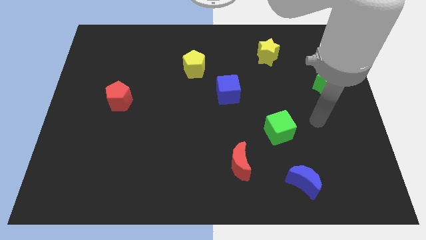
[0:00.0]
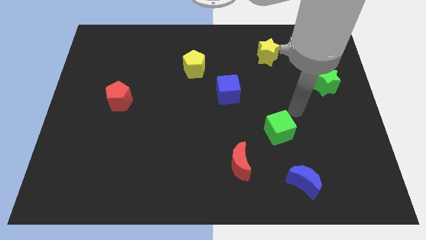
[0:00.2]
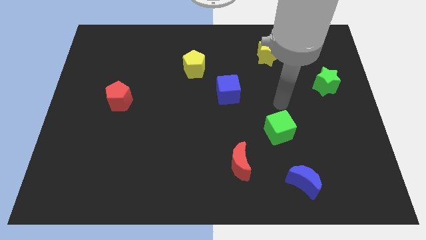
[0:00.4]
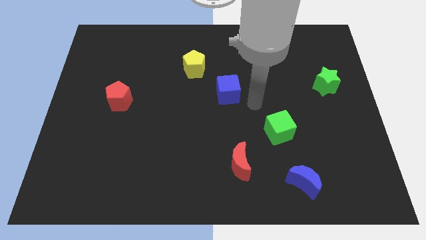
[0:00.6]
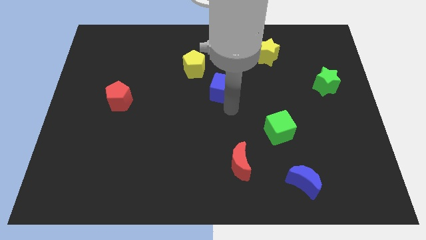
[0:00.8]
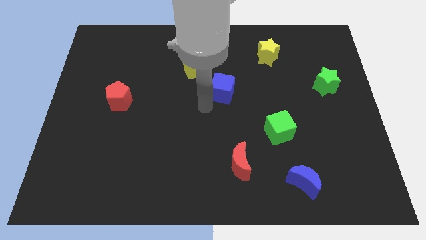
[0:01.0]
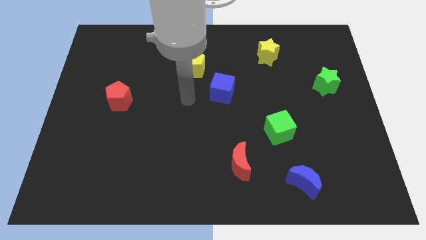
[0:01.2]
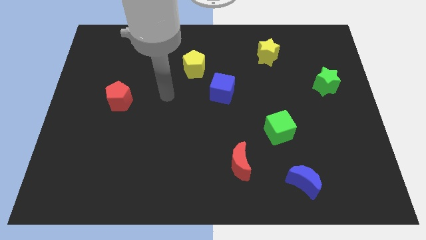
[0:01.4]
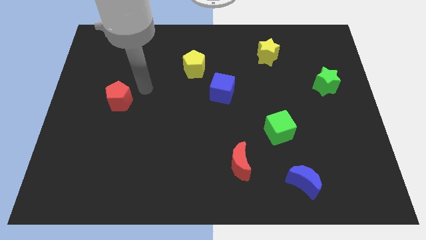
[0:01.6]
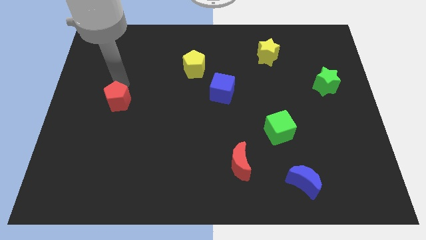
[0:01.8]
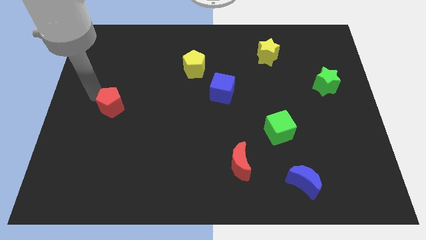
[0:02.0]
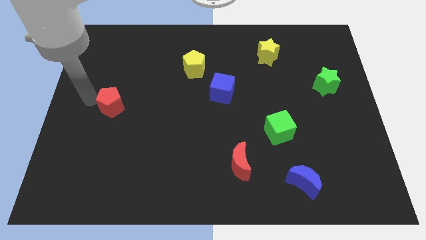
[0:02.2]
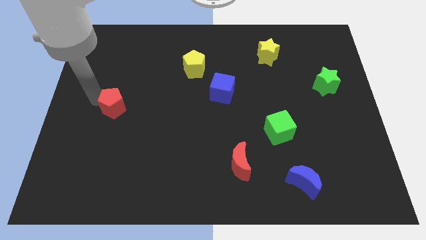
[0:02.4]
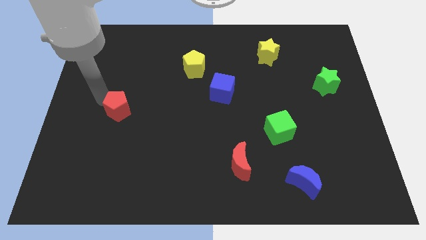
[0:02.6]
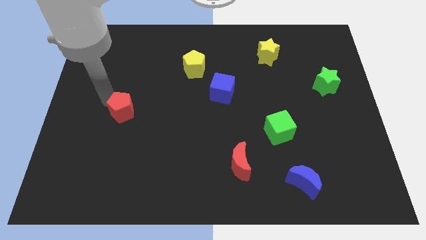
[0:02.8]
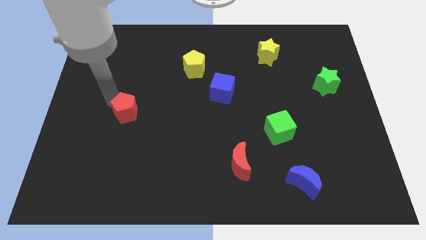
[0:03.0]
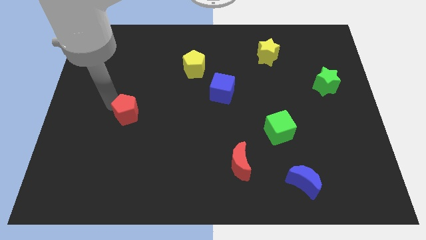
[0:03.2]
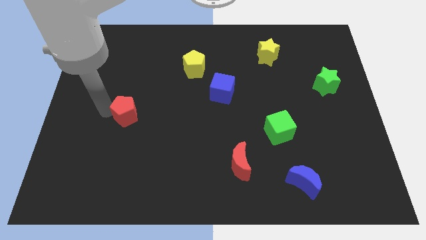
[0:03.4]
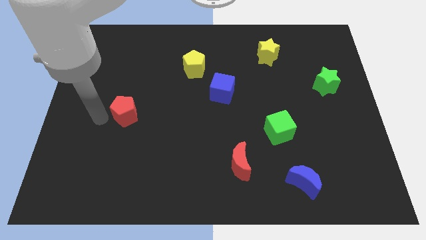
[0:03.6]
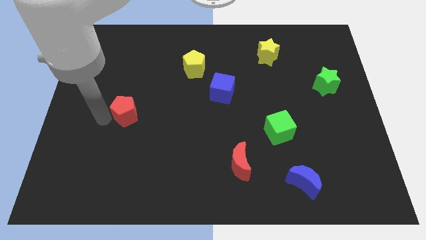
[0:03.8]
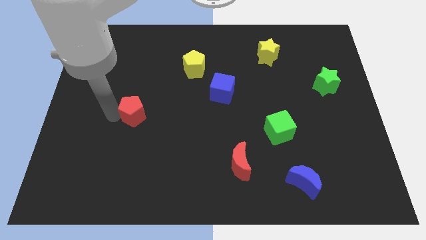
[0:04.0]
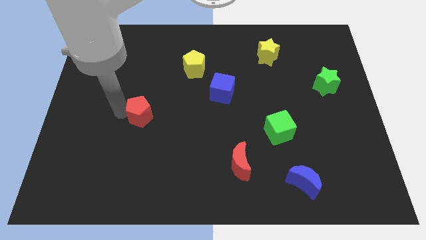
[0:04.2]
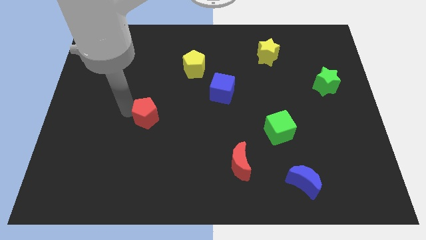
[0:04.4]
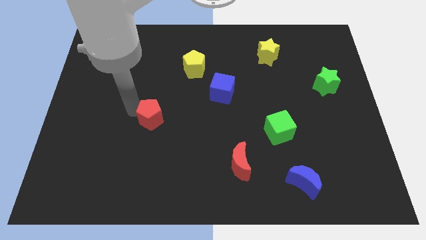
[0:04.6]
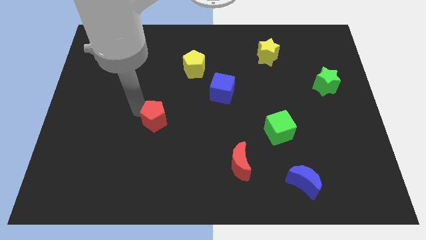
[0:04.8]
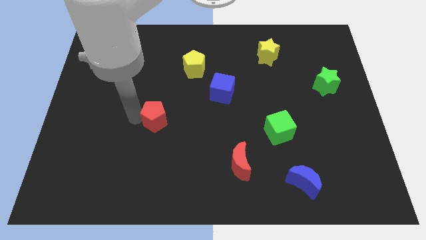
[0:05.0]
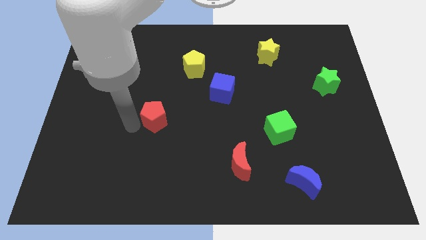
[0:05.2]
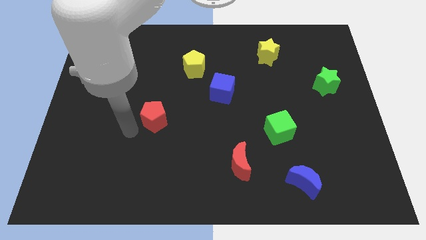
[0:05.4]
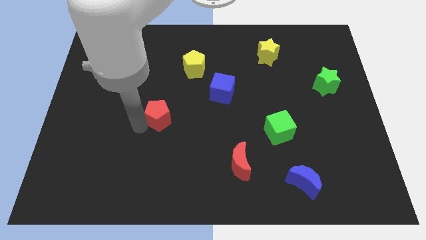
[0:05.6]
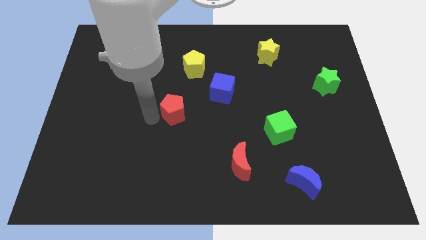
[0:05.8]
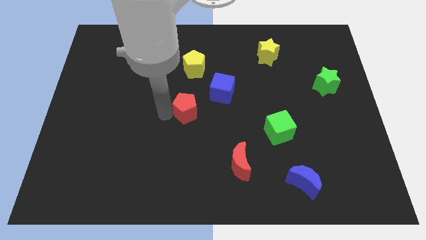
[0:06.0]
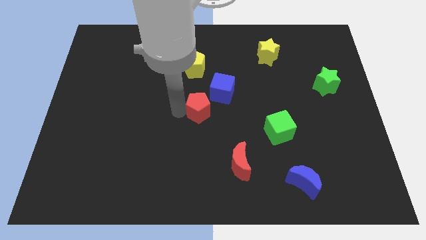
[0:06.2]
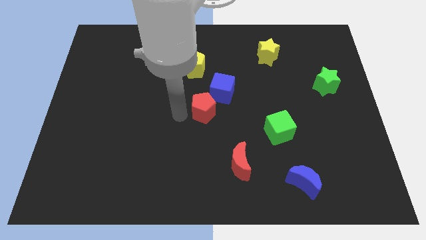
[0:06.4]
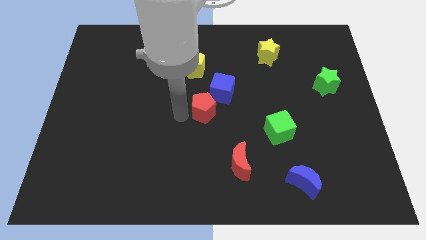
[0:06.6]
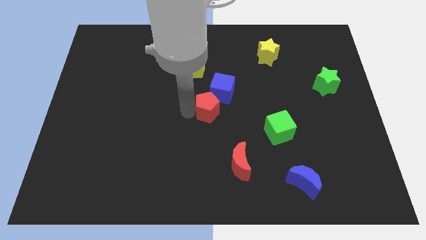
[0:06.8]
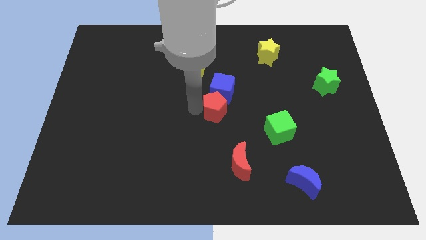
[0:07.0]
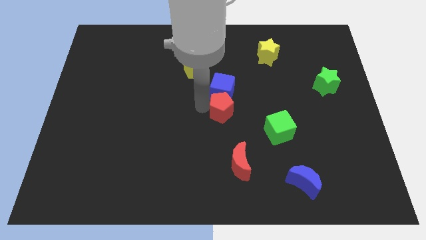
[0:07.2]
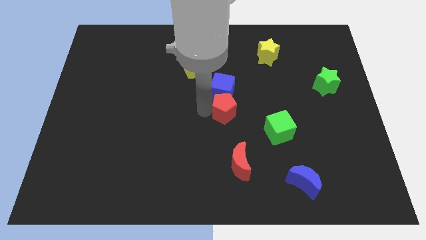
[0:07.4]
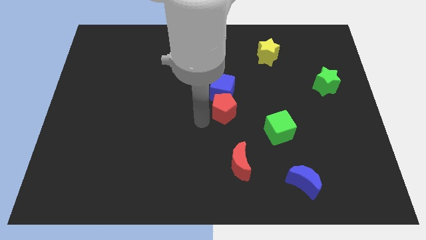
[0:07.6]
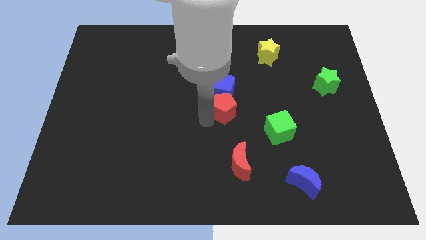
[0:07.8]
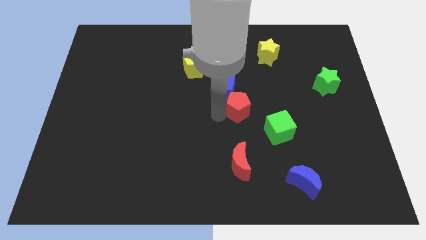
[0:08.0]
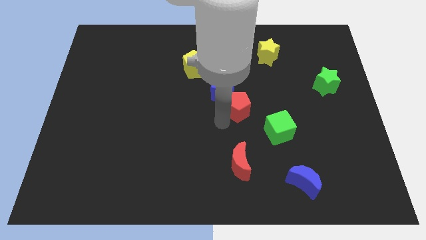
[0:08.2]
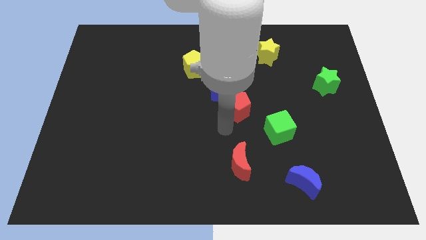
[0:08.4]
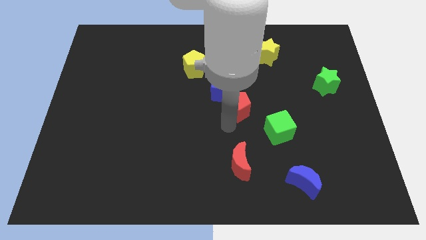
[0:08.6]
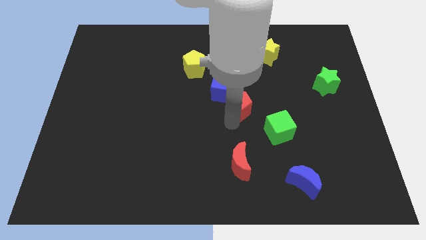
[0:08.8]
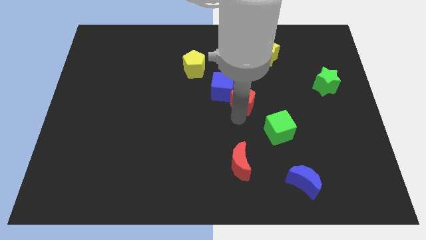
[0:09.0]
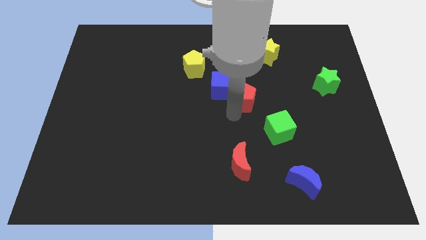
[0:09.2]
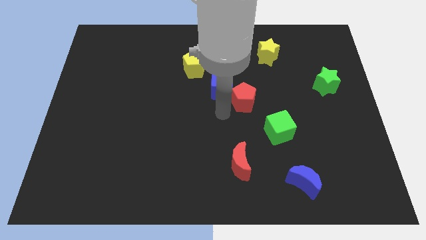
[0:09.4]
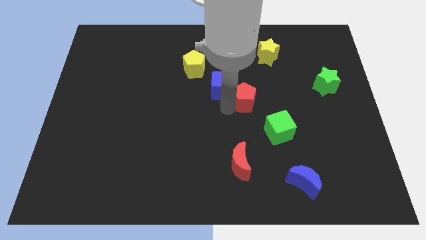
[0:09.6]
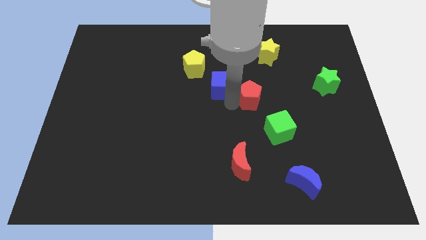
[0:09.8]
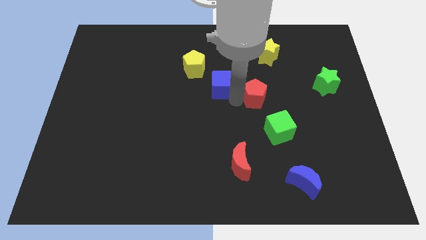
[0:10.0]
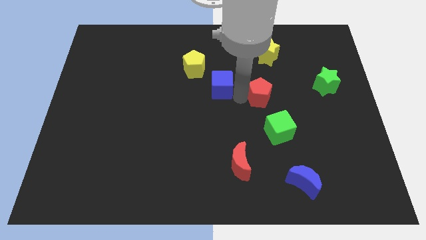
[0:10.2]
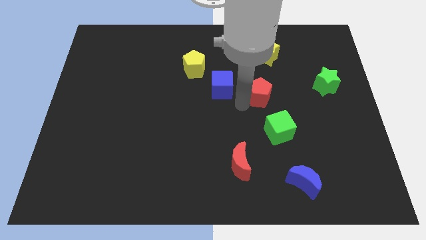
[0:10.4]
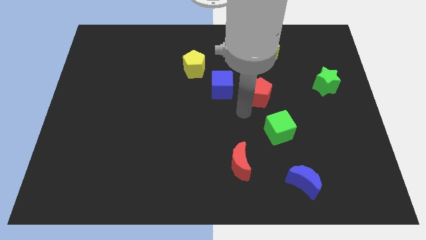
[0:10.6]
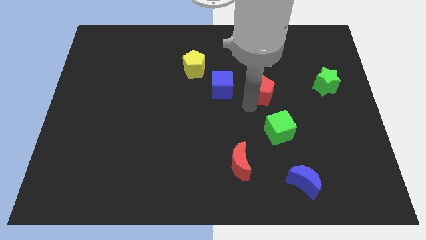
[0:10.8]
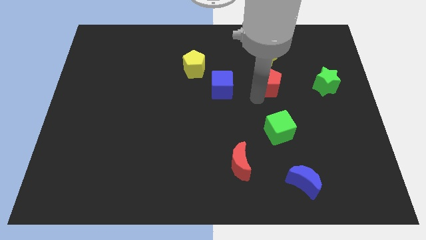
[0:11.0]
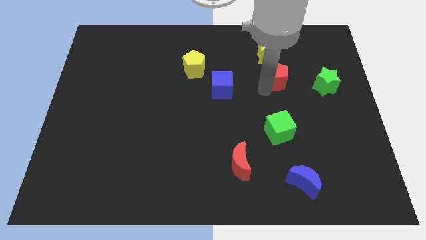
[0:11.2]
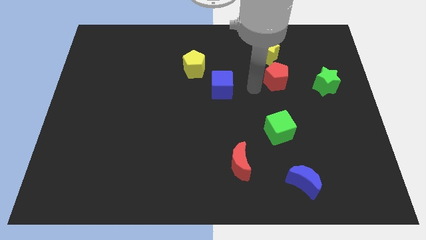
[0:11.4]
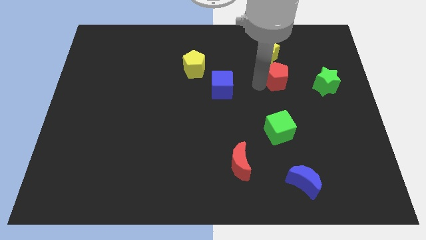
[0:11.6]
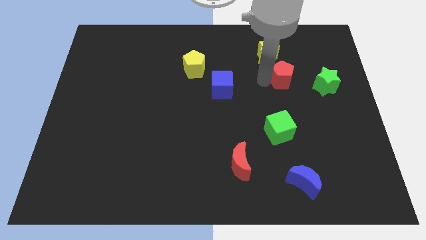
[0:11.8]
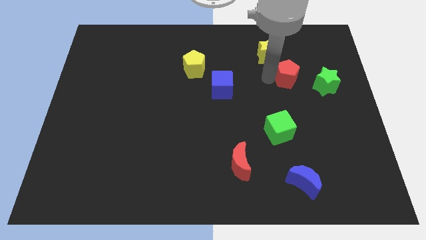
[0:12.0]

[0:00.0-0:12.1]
put the red pentagon diagonally up and to the left of the green star

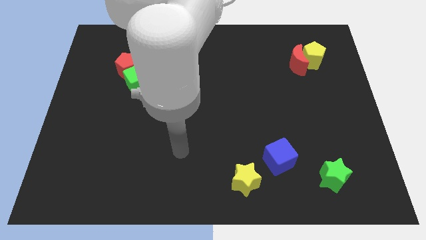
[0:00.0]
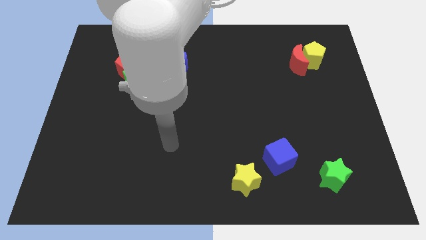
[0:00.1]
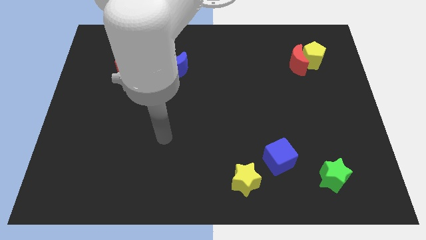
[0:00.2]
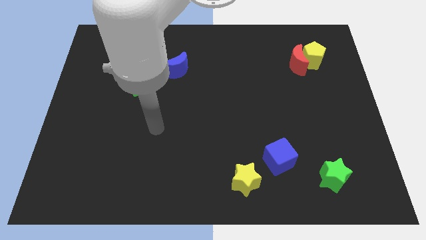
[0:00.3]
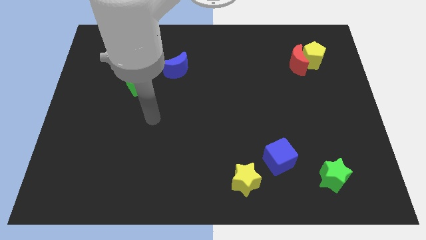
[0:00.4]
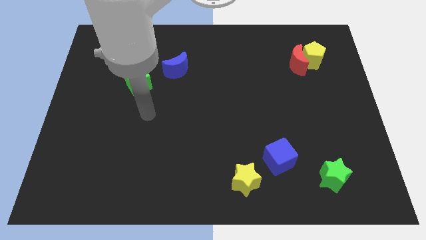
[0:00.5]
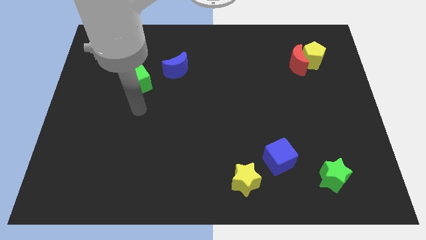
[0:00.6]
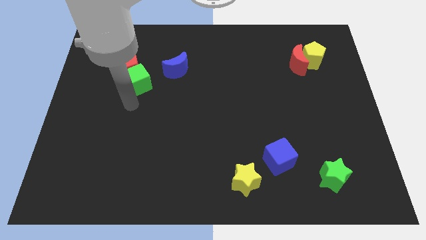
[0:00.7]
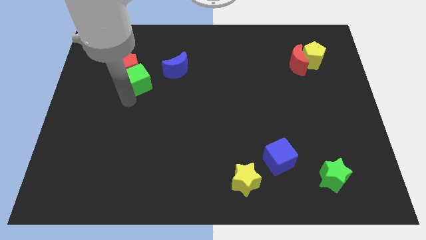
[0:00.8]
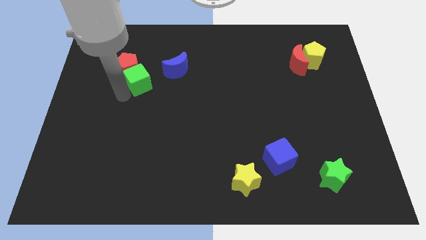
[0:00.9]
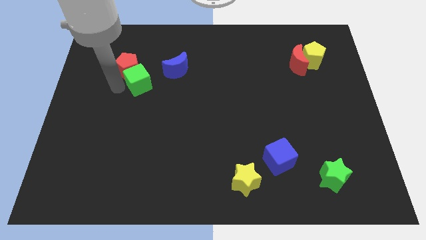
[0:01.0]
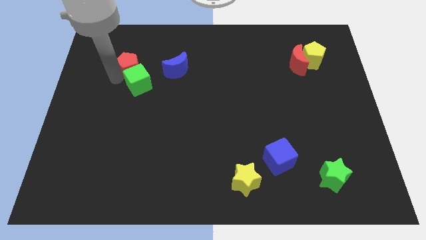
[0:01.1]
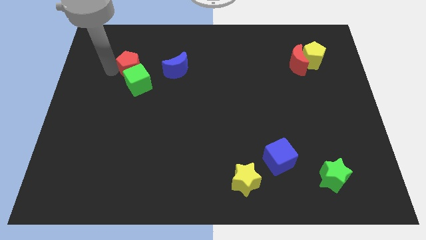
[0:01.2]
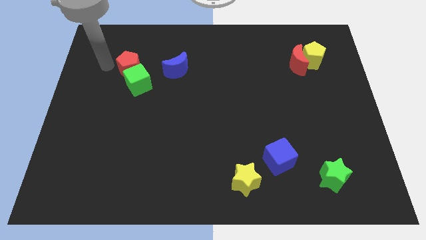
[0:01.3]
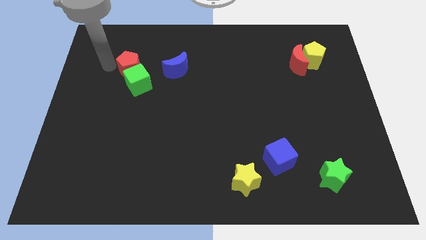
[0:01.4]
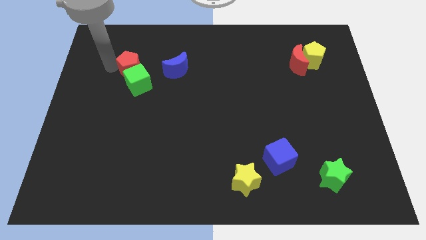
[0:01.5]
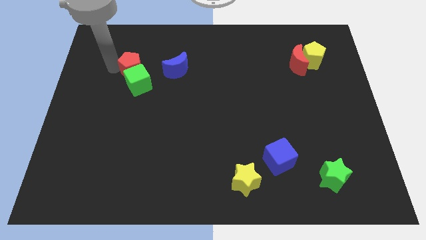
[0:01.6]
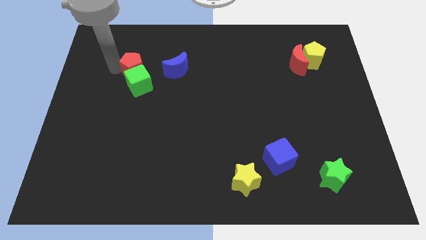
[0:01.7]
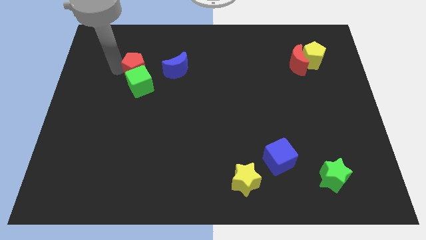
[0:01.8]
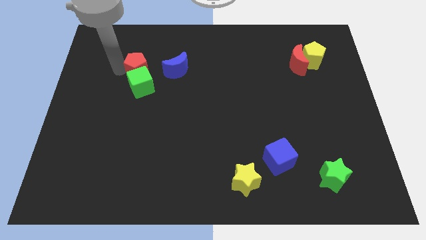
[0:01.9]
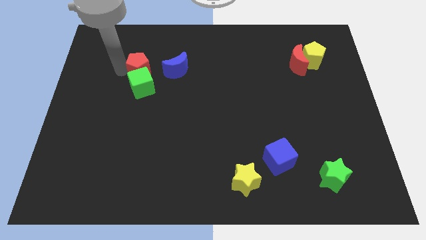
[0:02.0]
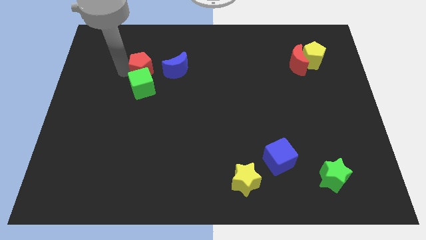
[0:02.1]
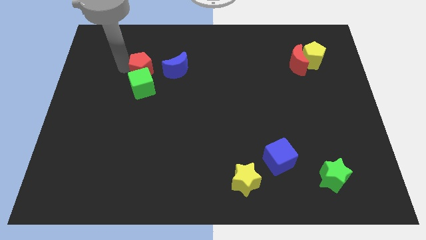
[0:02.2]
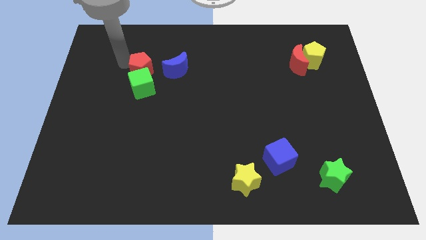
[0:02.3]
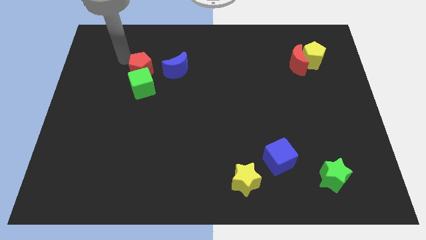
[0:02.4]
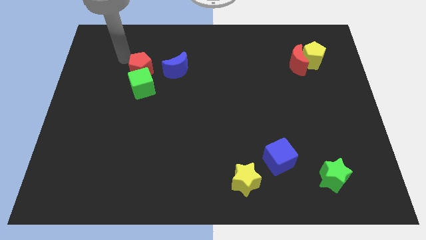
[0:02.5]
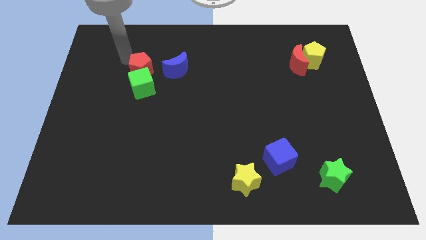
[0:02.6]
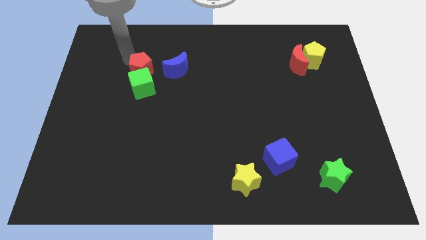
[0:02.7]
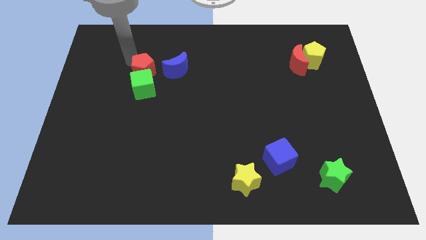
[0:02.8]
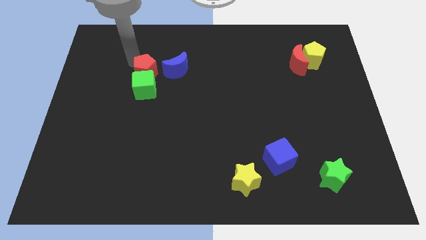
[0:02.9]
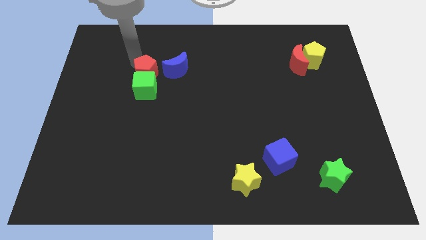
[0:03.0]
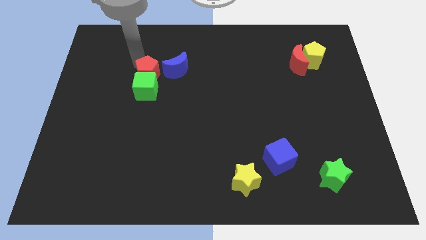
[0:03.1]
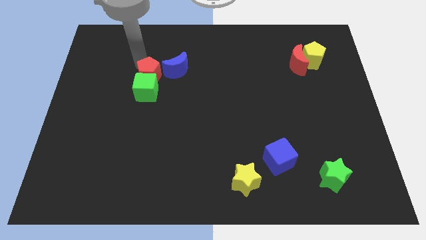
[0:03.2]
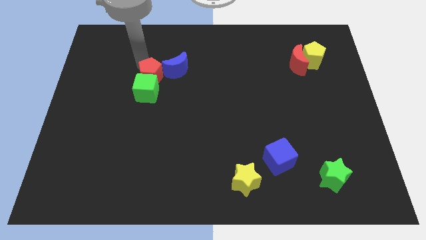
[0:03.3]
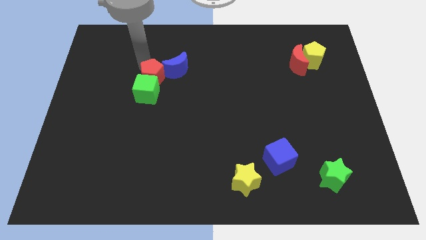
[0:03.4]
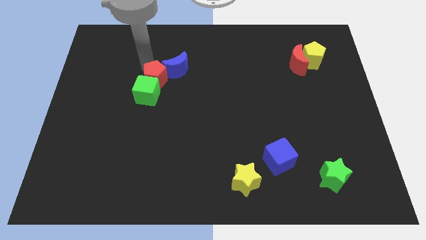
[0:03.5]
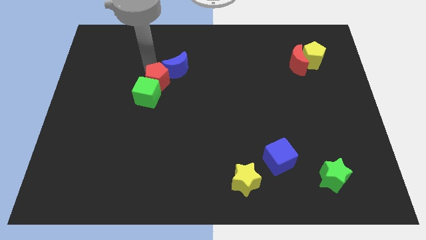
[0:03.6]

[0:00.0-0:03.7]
put the red pentagon below the blue moon
